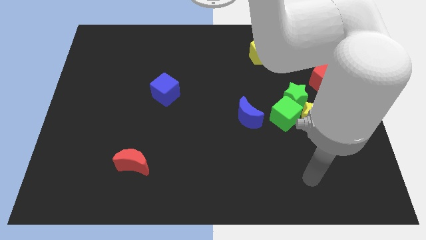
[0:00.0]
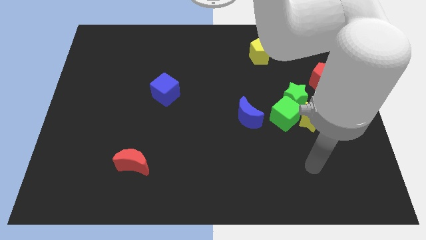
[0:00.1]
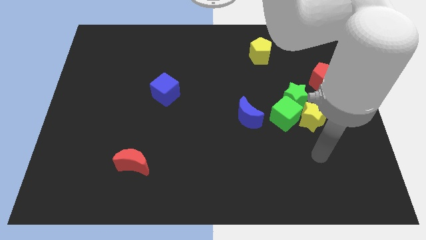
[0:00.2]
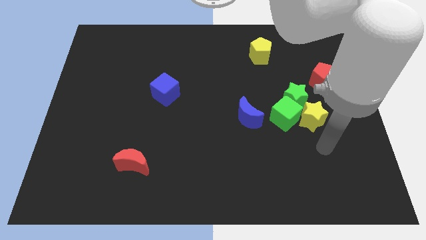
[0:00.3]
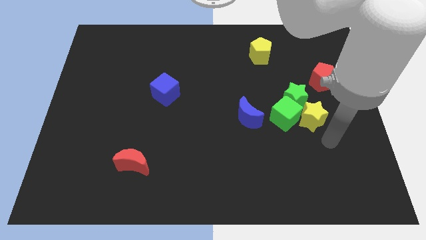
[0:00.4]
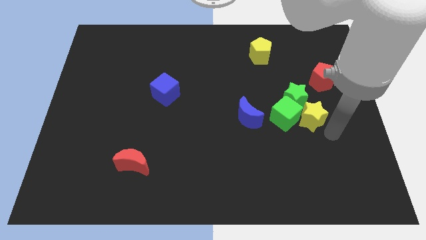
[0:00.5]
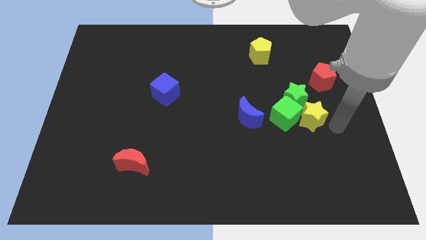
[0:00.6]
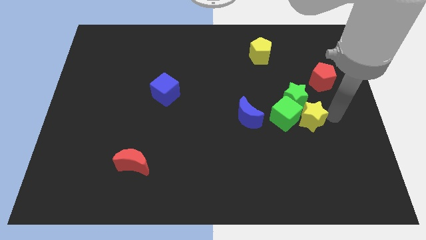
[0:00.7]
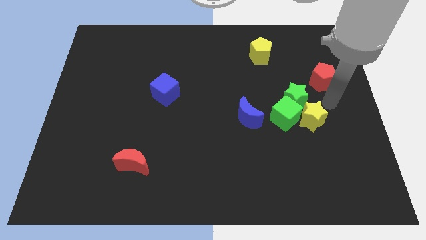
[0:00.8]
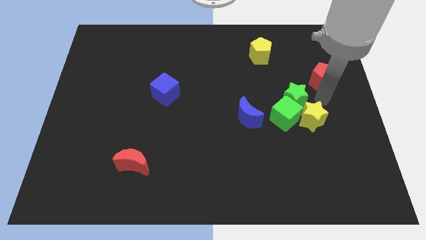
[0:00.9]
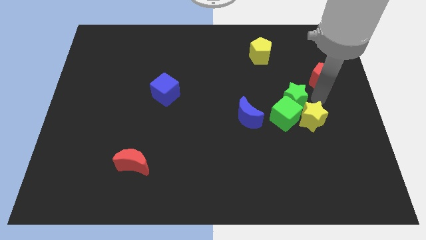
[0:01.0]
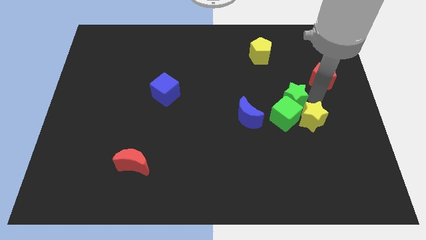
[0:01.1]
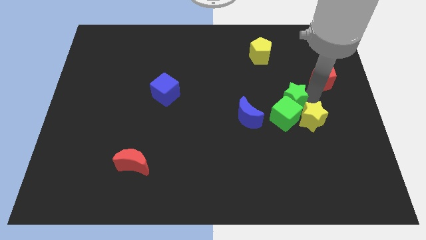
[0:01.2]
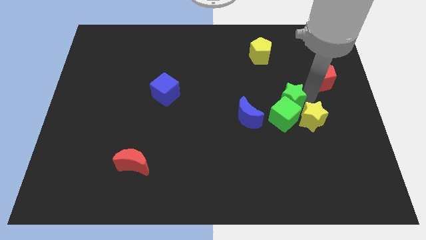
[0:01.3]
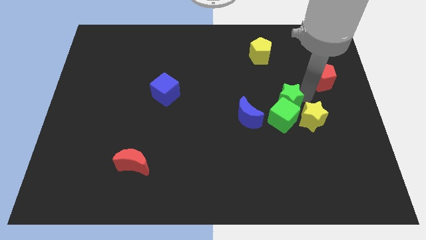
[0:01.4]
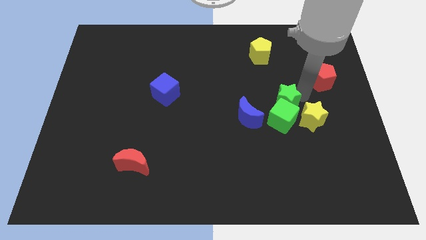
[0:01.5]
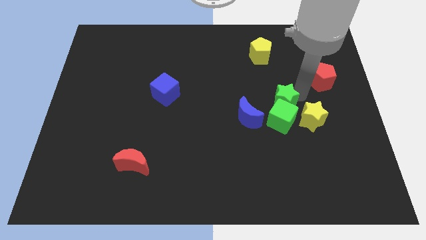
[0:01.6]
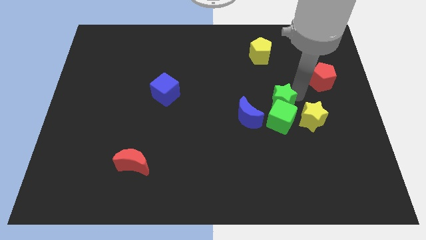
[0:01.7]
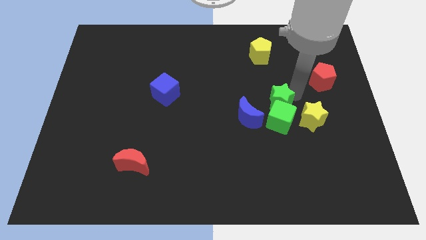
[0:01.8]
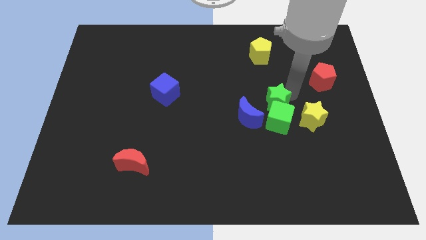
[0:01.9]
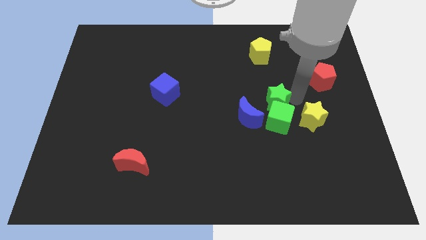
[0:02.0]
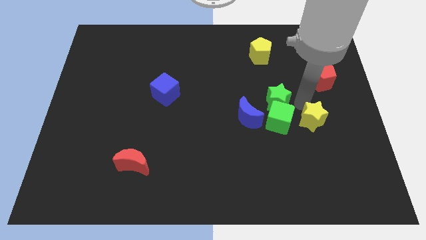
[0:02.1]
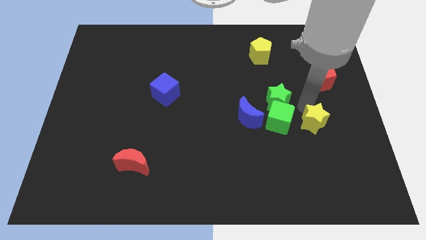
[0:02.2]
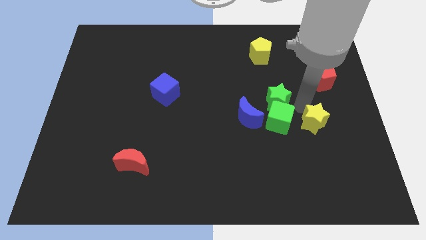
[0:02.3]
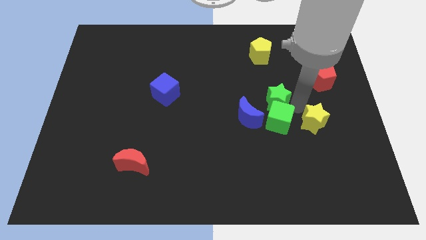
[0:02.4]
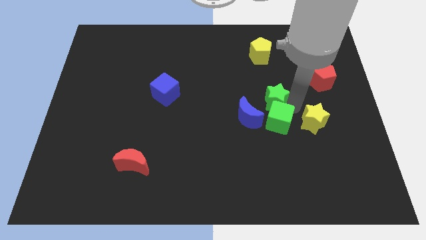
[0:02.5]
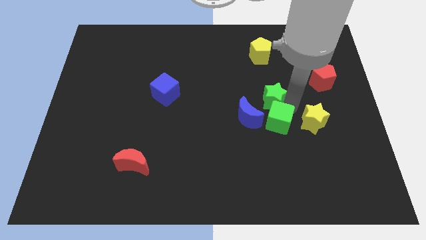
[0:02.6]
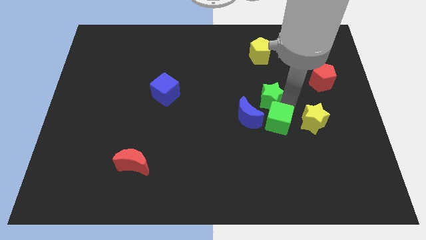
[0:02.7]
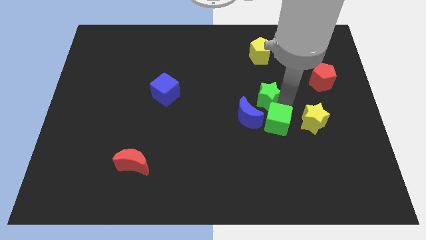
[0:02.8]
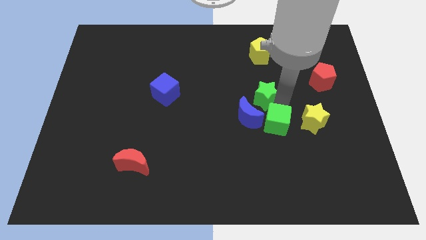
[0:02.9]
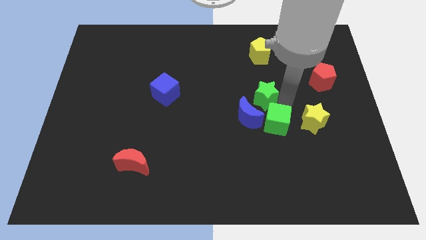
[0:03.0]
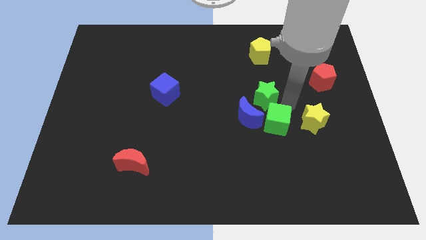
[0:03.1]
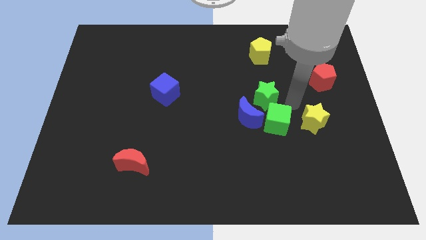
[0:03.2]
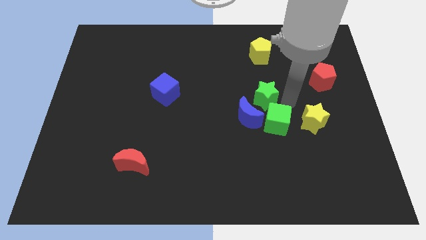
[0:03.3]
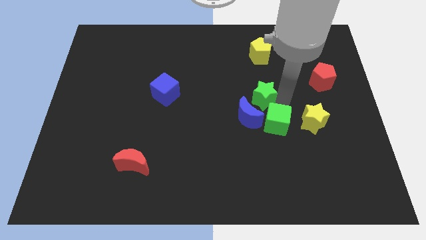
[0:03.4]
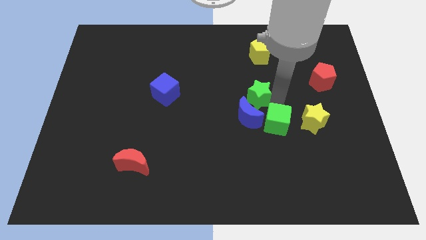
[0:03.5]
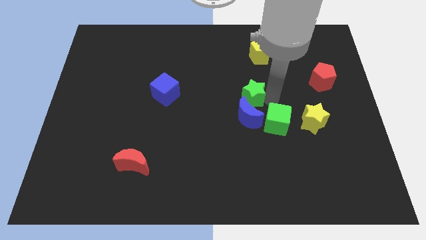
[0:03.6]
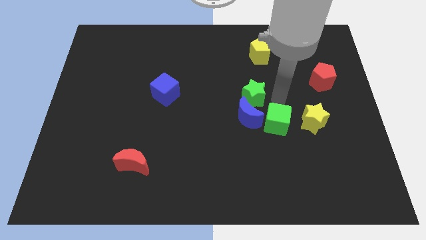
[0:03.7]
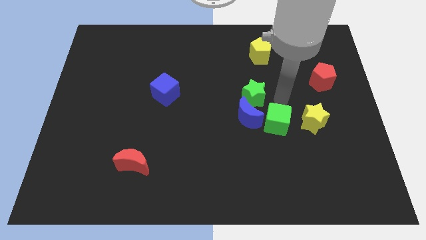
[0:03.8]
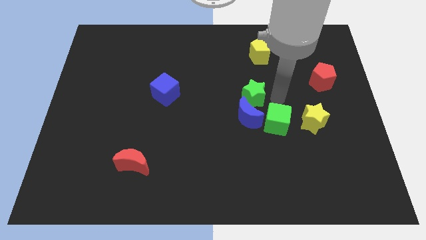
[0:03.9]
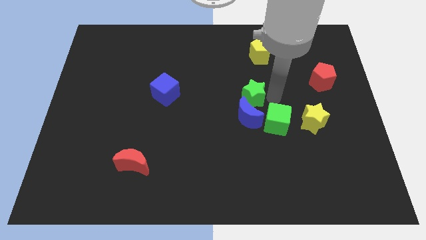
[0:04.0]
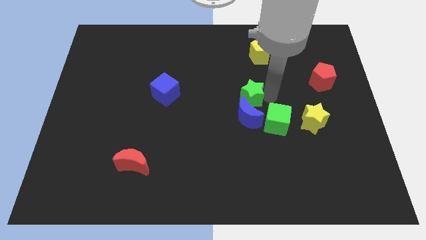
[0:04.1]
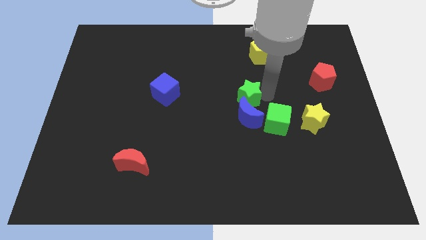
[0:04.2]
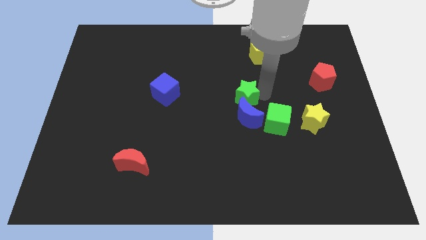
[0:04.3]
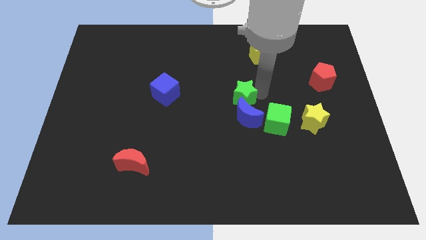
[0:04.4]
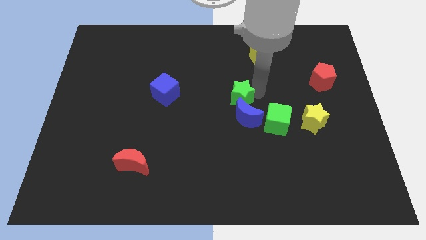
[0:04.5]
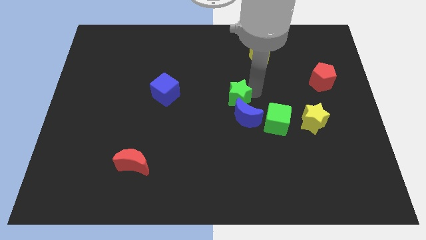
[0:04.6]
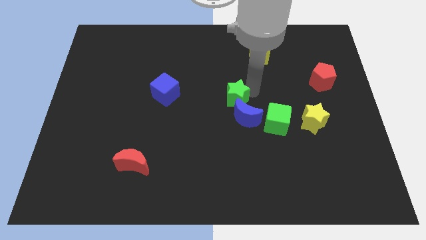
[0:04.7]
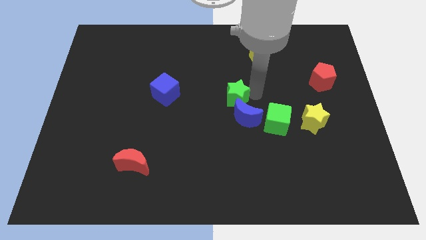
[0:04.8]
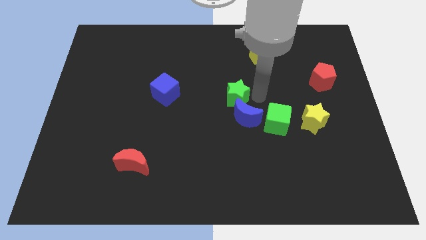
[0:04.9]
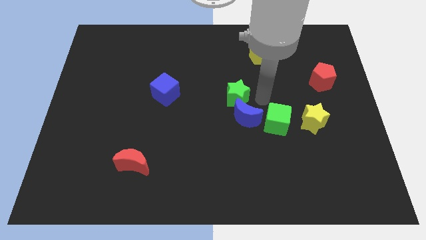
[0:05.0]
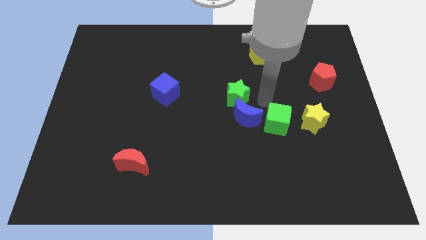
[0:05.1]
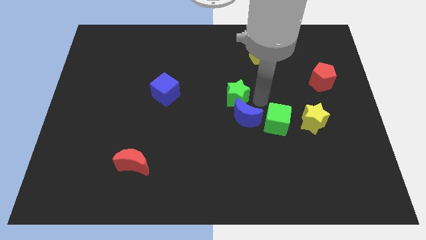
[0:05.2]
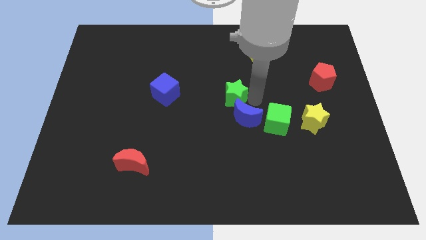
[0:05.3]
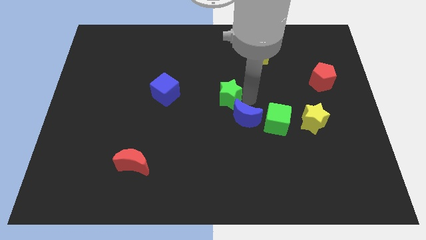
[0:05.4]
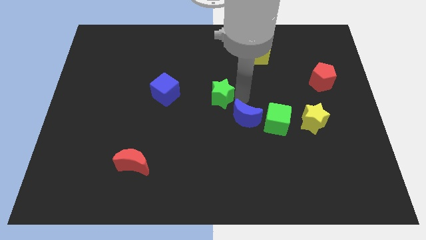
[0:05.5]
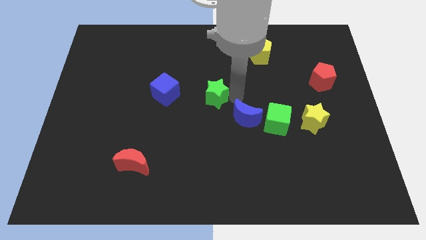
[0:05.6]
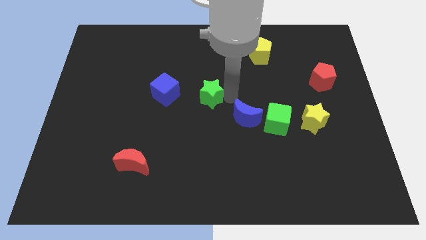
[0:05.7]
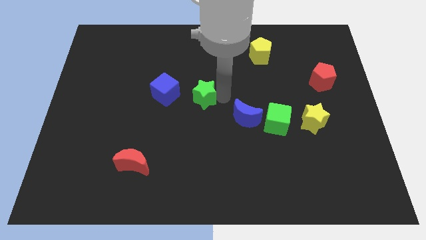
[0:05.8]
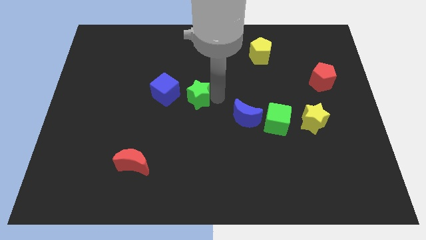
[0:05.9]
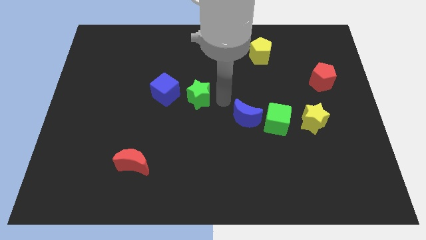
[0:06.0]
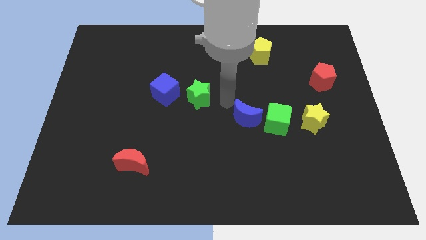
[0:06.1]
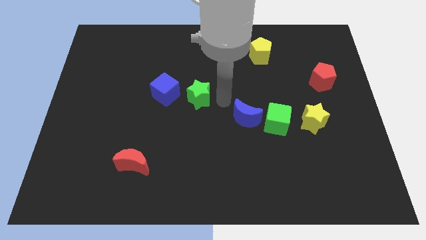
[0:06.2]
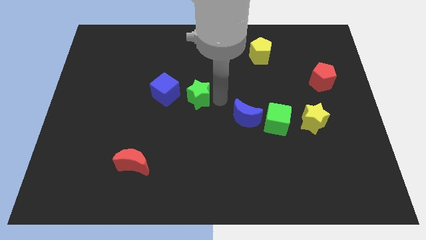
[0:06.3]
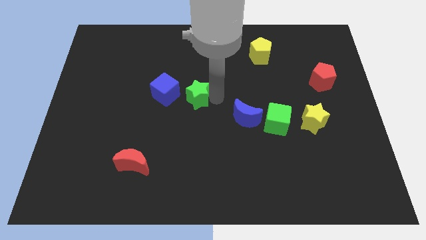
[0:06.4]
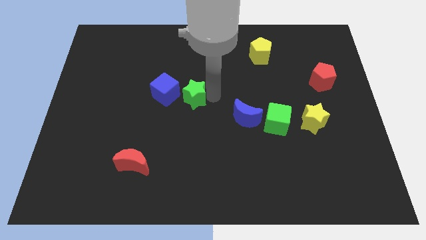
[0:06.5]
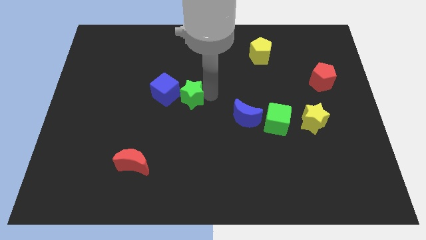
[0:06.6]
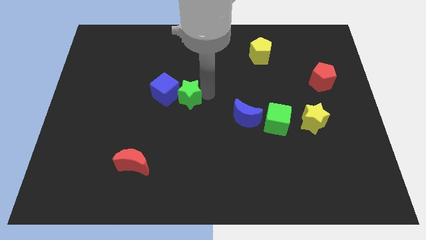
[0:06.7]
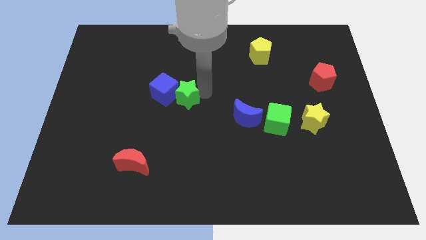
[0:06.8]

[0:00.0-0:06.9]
slide the green star next to the blue cube

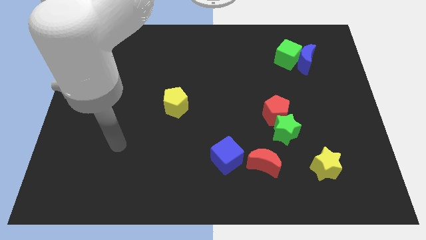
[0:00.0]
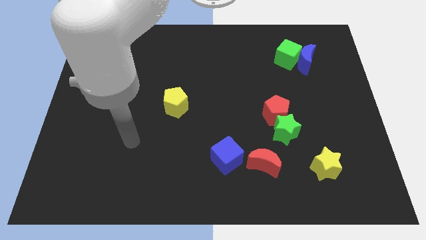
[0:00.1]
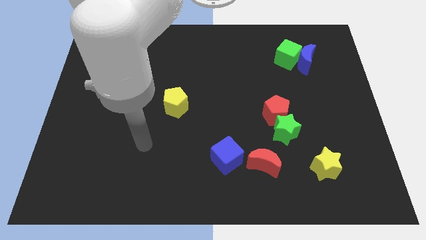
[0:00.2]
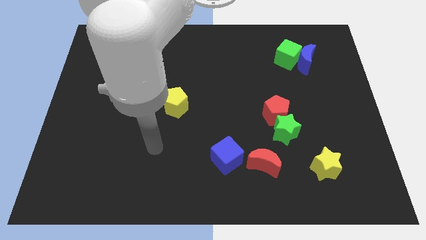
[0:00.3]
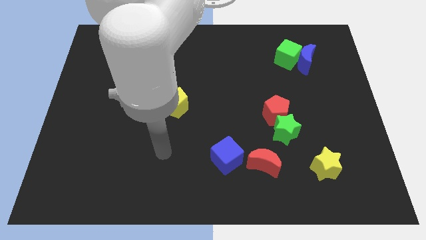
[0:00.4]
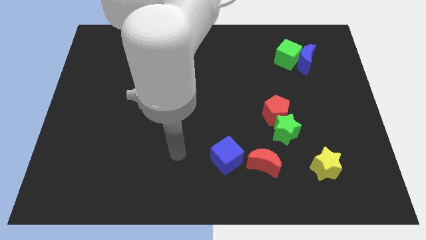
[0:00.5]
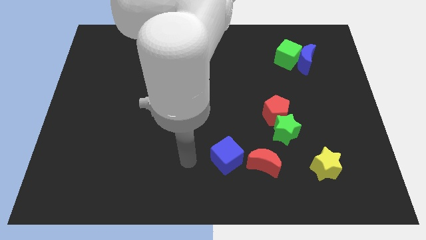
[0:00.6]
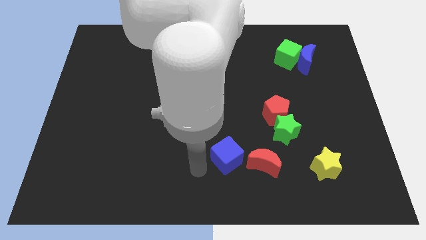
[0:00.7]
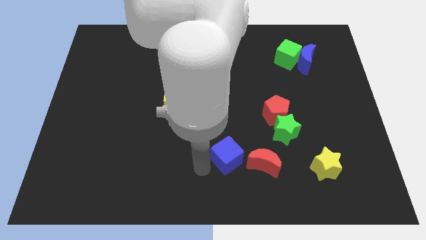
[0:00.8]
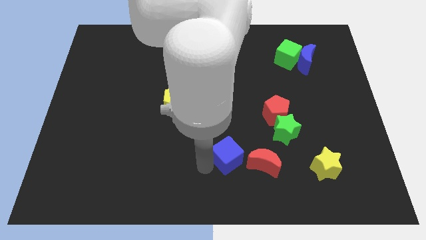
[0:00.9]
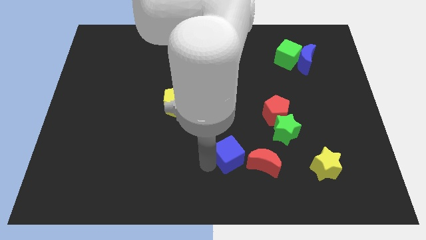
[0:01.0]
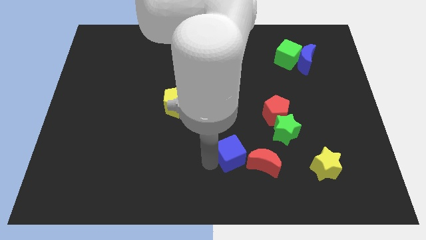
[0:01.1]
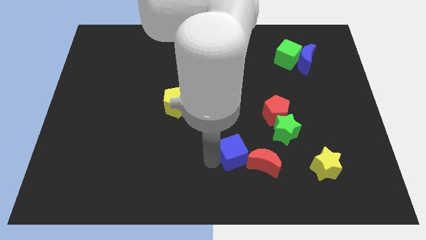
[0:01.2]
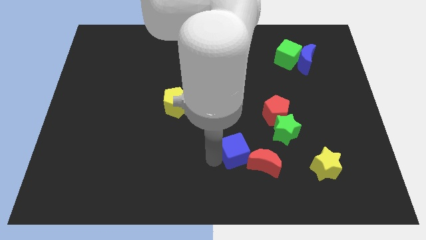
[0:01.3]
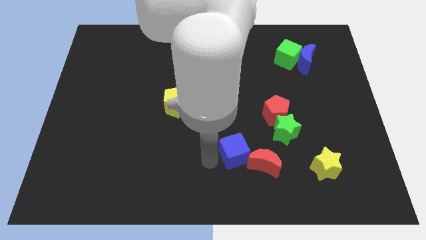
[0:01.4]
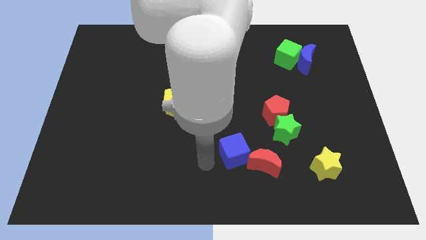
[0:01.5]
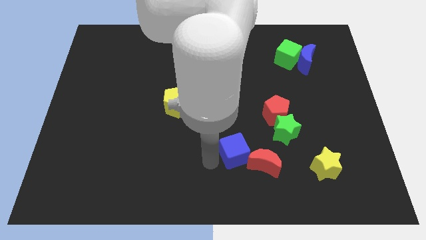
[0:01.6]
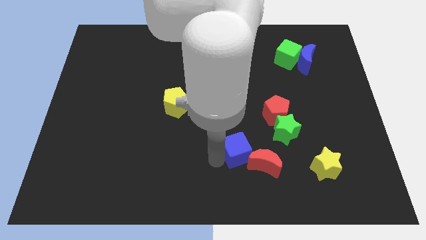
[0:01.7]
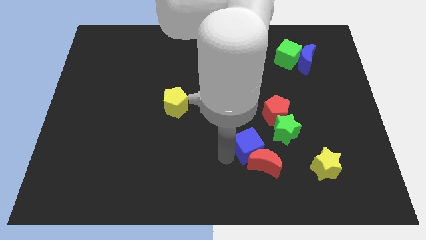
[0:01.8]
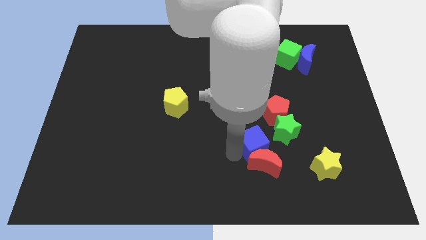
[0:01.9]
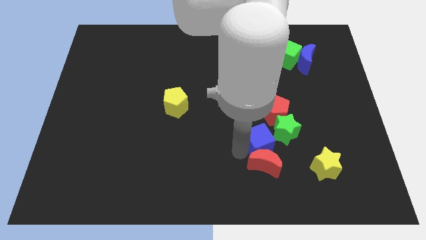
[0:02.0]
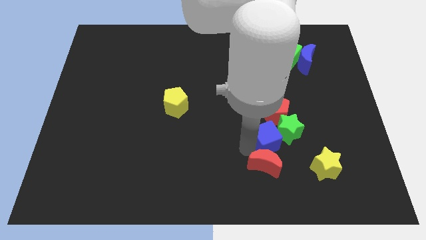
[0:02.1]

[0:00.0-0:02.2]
move the blue cube next to the green star
